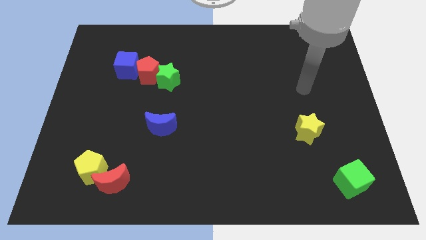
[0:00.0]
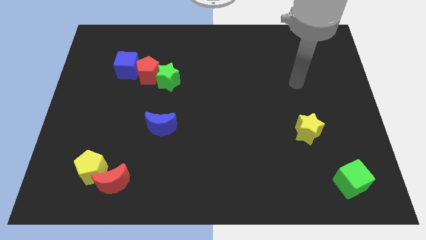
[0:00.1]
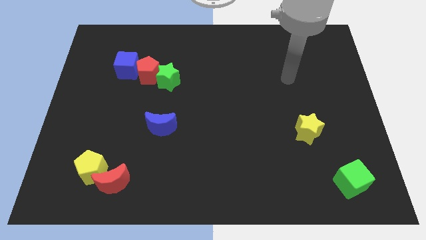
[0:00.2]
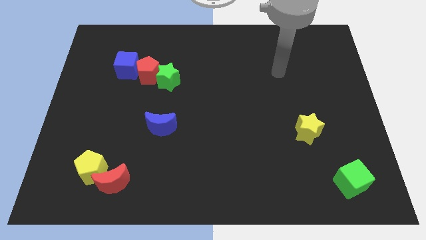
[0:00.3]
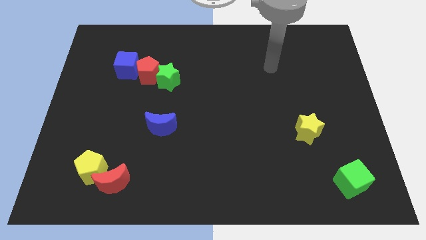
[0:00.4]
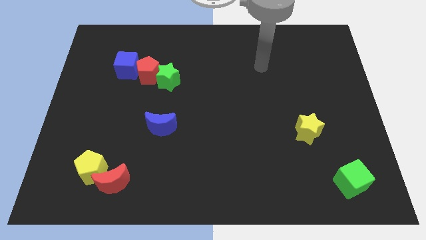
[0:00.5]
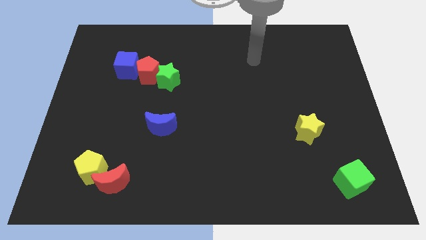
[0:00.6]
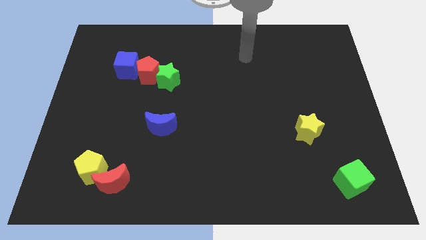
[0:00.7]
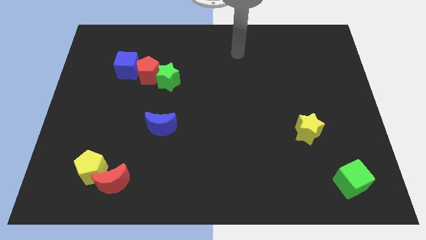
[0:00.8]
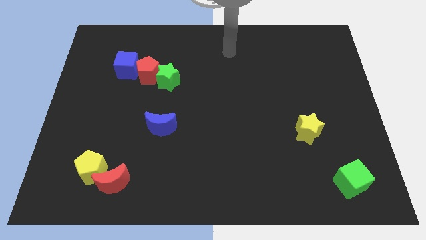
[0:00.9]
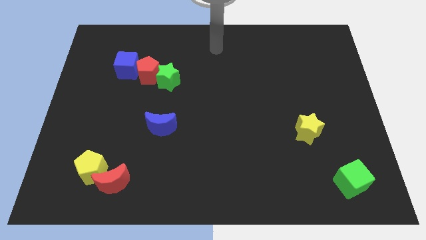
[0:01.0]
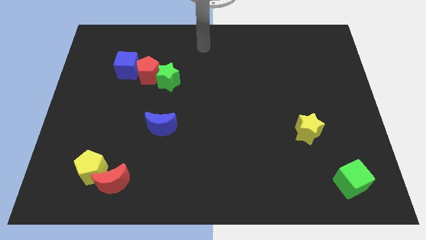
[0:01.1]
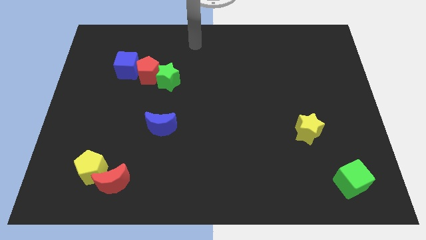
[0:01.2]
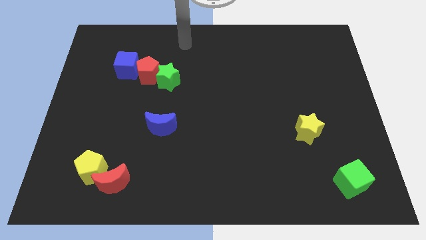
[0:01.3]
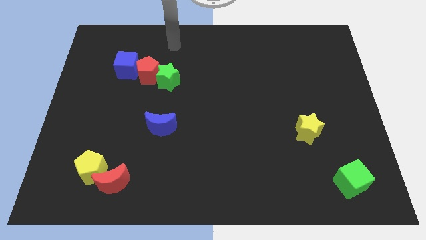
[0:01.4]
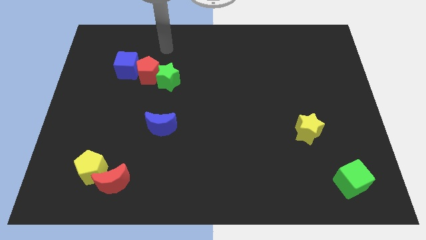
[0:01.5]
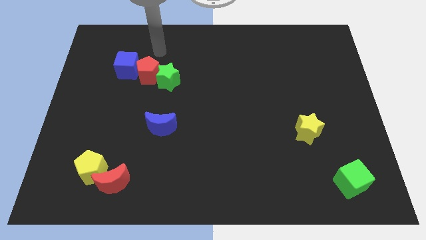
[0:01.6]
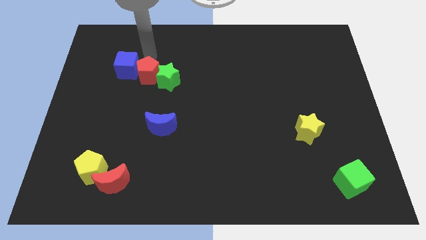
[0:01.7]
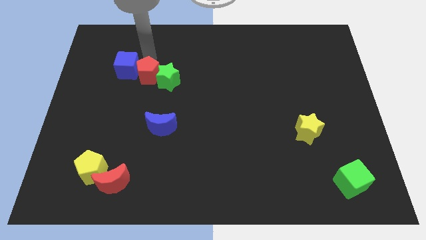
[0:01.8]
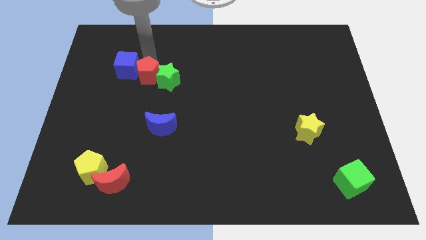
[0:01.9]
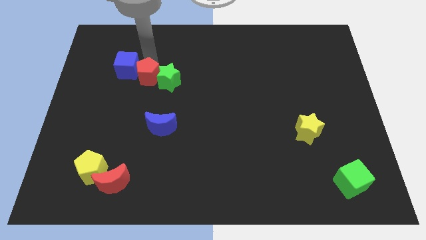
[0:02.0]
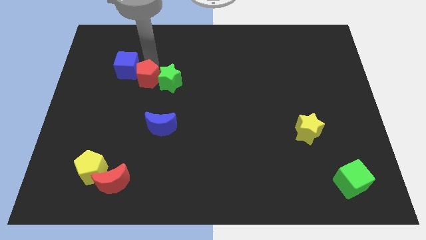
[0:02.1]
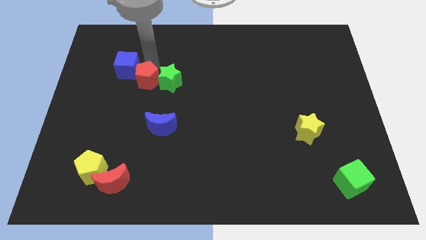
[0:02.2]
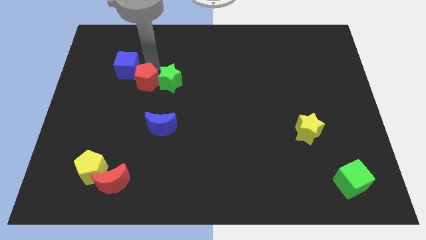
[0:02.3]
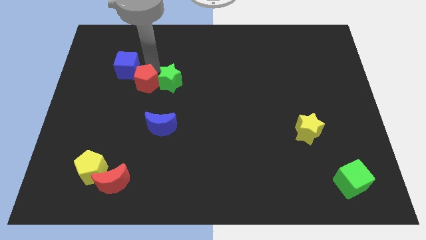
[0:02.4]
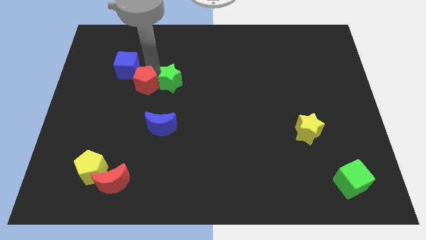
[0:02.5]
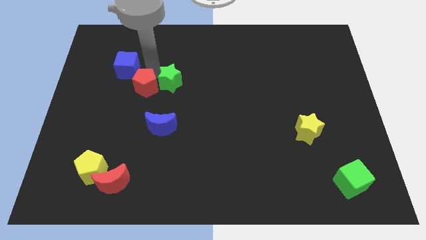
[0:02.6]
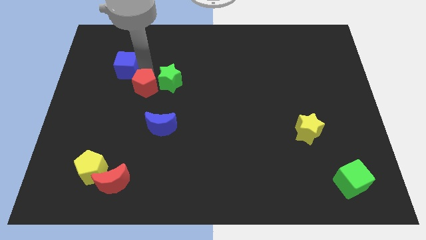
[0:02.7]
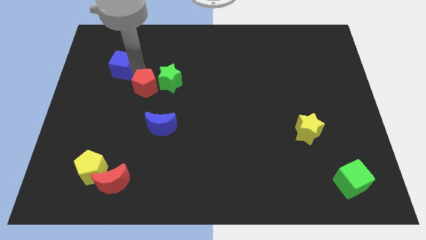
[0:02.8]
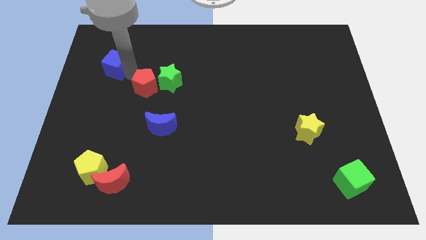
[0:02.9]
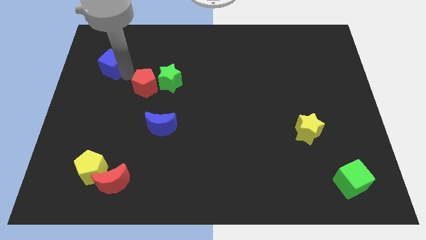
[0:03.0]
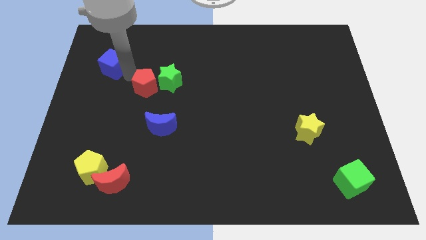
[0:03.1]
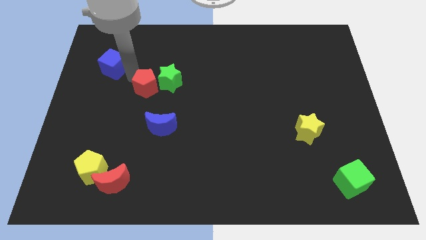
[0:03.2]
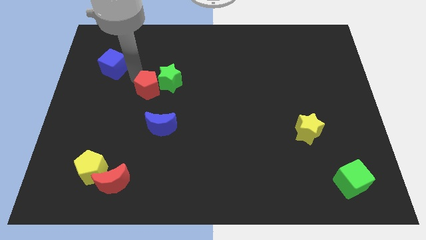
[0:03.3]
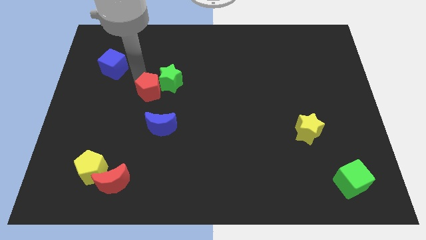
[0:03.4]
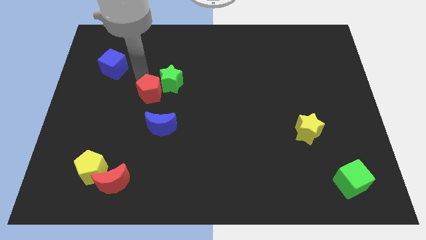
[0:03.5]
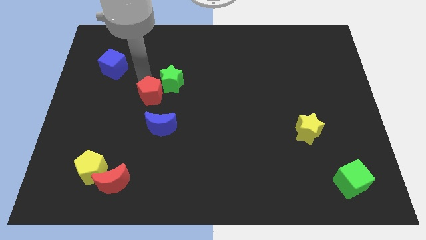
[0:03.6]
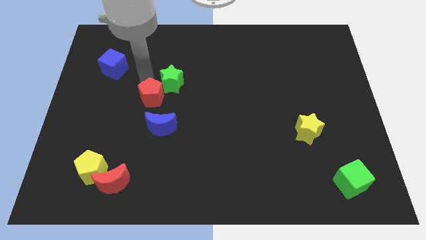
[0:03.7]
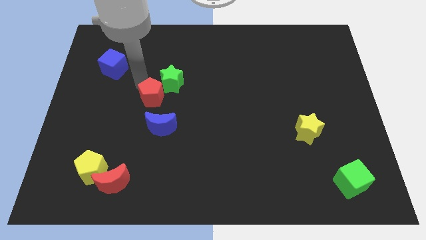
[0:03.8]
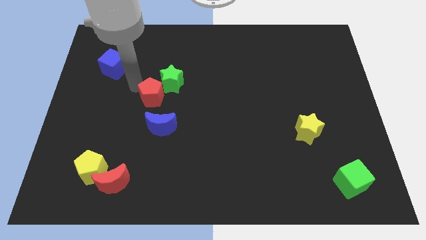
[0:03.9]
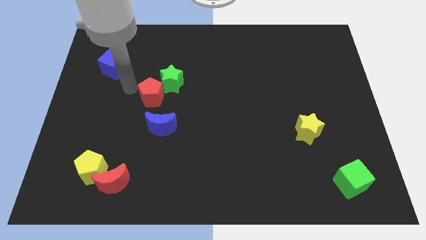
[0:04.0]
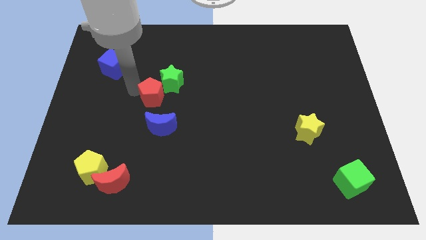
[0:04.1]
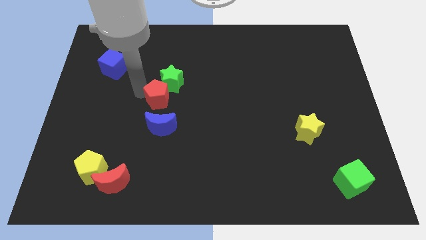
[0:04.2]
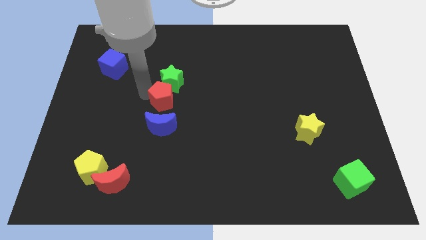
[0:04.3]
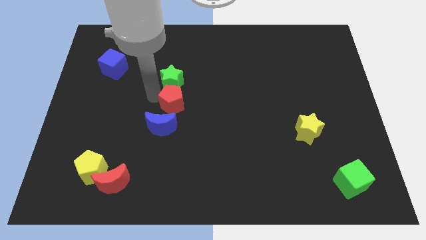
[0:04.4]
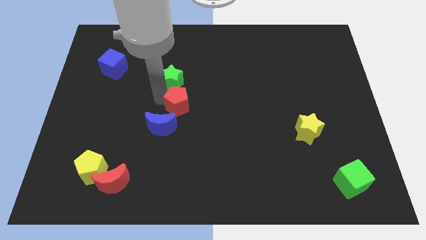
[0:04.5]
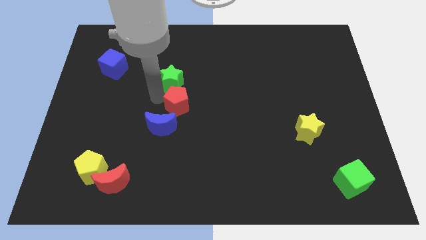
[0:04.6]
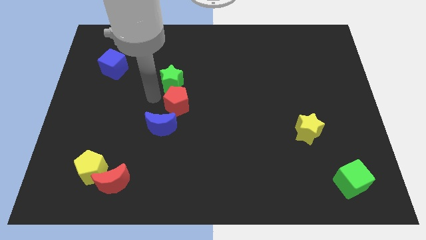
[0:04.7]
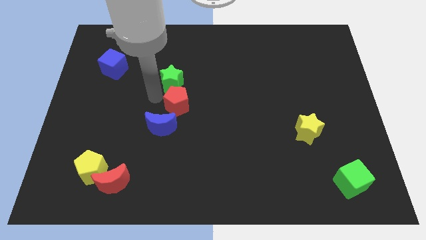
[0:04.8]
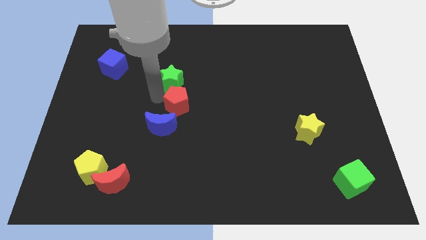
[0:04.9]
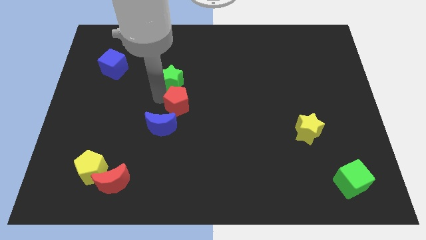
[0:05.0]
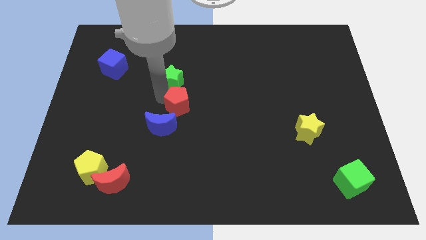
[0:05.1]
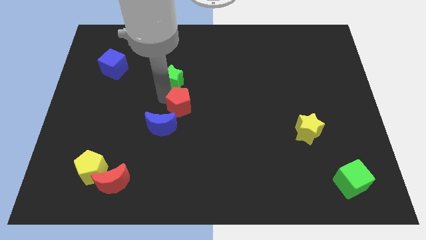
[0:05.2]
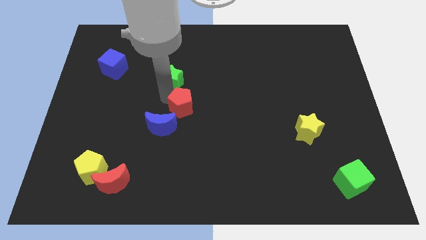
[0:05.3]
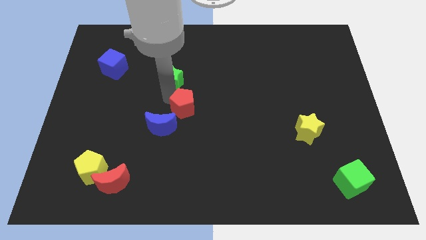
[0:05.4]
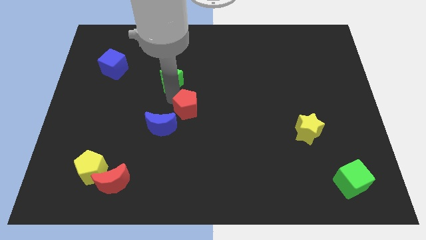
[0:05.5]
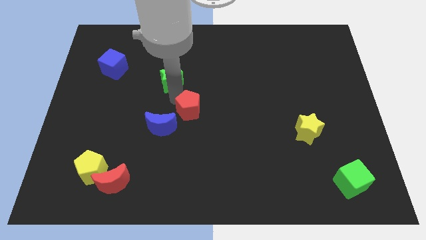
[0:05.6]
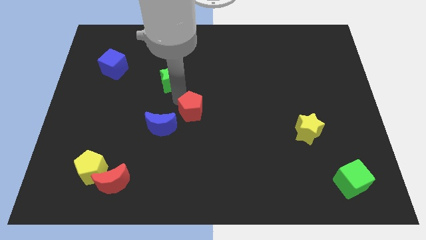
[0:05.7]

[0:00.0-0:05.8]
put the red pentagon just right of the blue moon

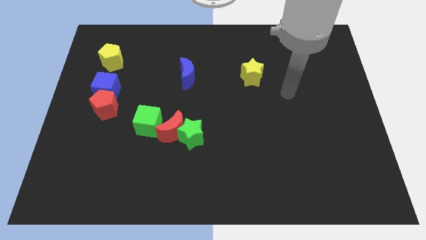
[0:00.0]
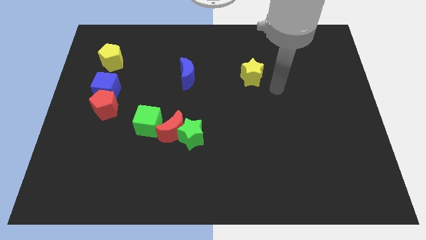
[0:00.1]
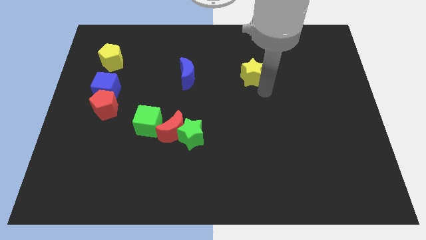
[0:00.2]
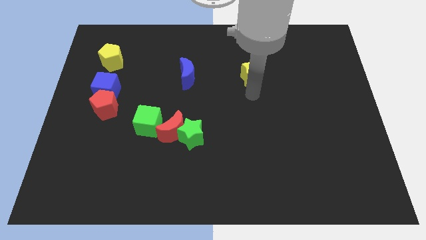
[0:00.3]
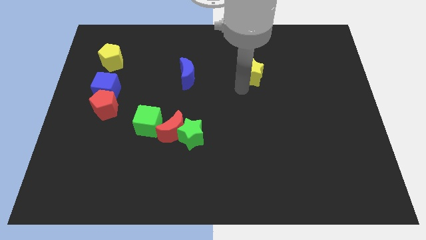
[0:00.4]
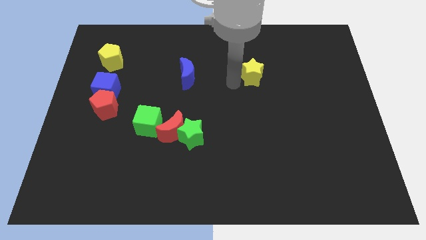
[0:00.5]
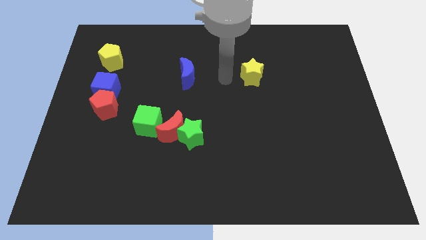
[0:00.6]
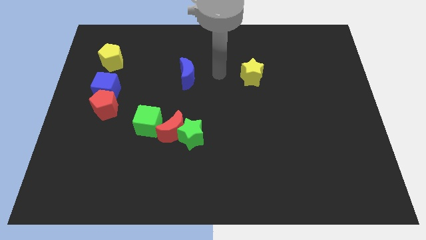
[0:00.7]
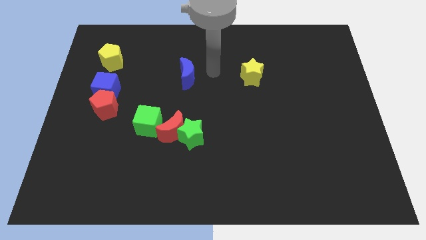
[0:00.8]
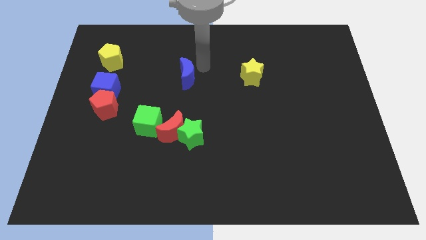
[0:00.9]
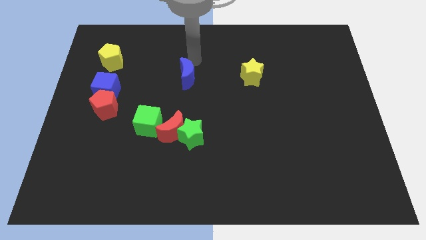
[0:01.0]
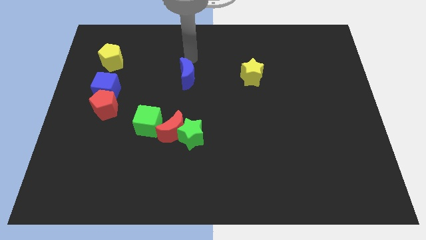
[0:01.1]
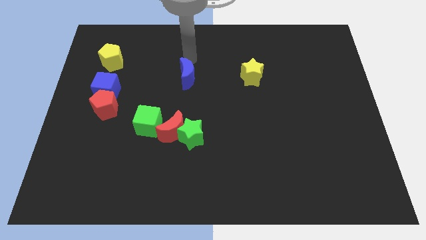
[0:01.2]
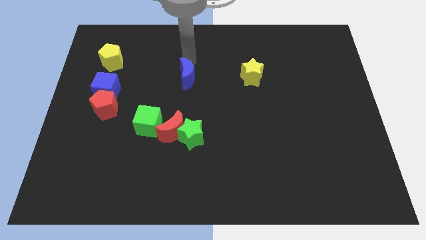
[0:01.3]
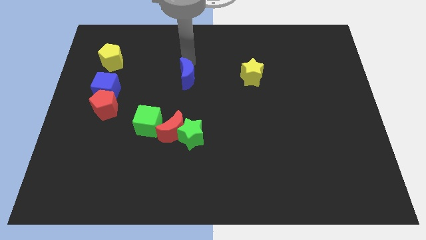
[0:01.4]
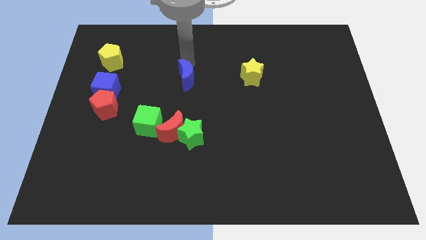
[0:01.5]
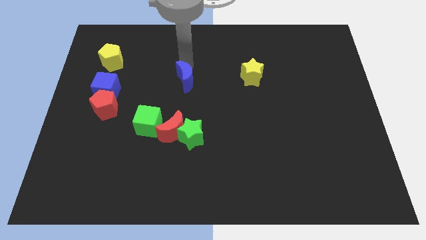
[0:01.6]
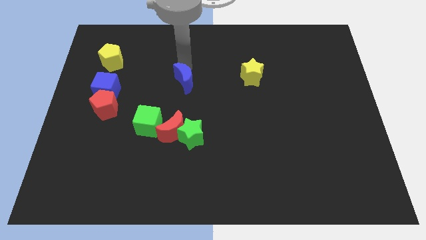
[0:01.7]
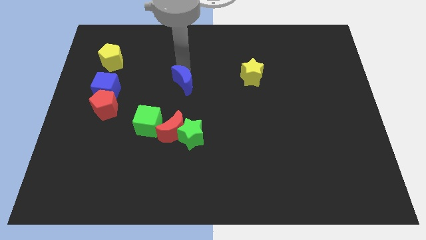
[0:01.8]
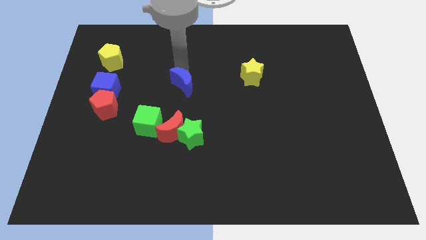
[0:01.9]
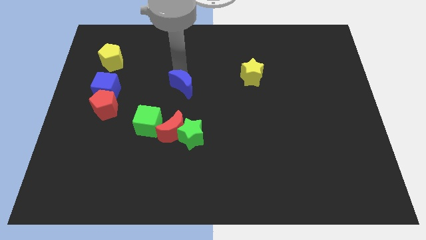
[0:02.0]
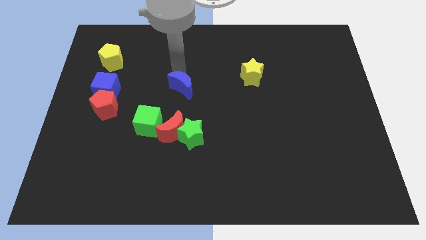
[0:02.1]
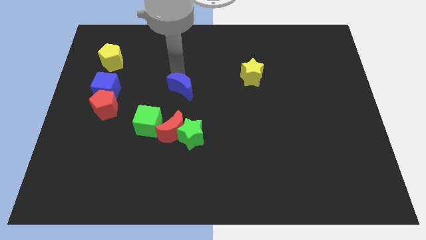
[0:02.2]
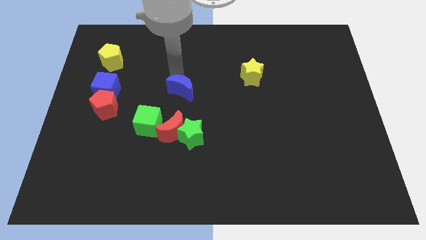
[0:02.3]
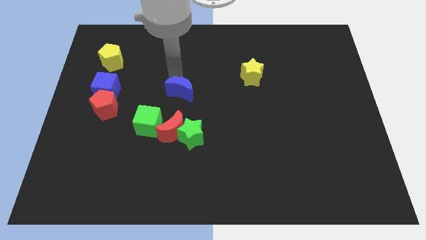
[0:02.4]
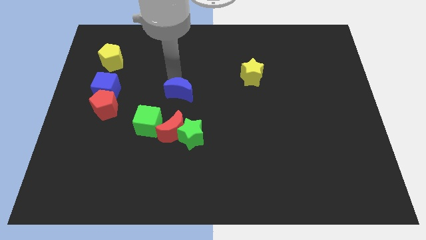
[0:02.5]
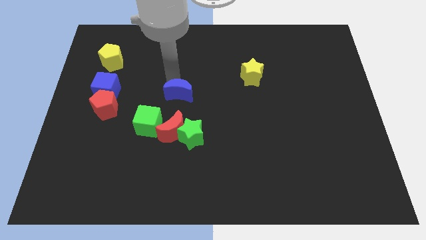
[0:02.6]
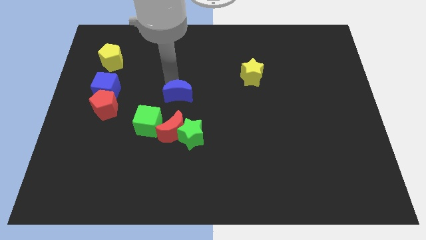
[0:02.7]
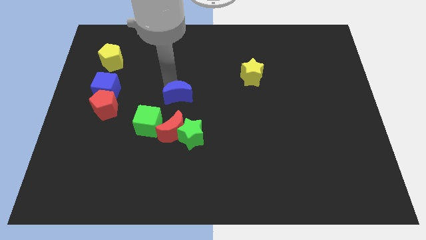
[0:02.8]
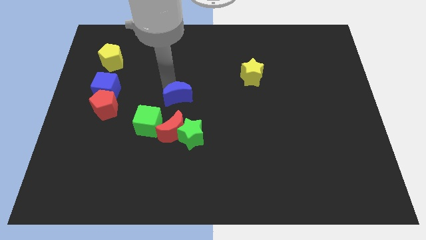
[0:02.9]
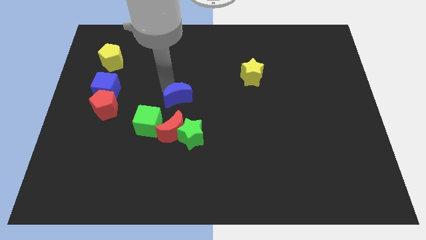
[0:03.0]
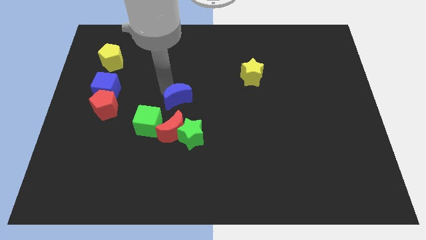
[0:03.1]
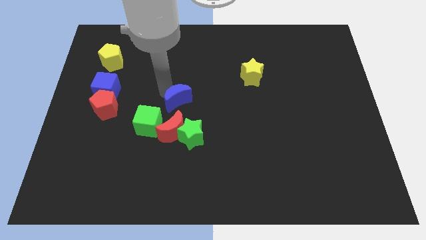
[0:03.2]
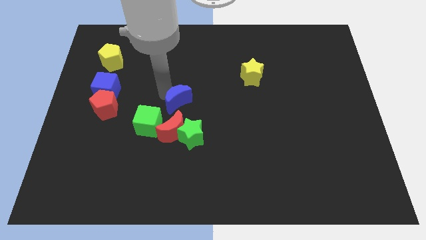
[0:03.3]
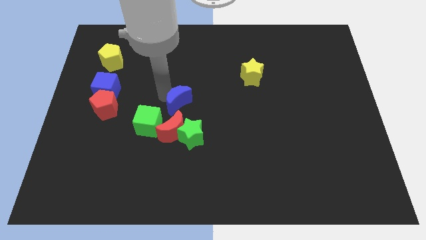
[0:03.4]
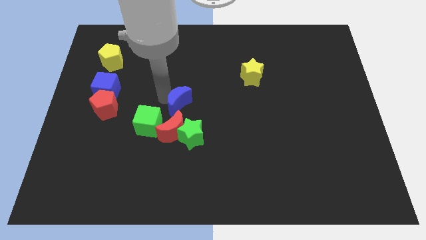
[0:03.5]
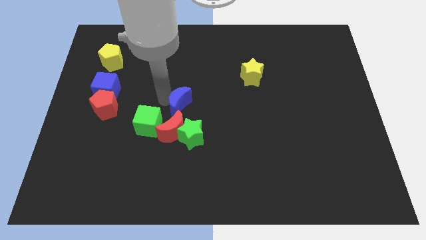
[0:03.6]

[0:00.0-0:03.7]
put the blue moon to the top right side of the red moon
